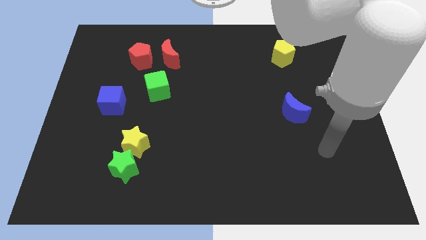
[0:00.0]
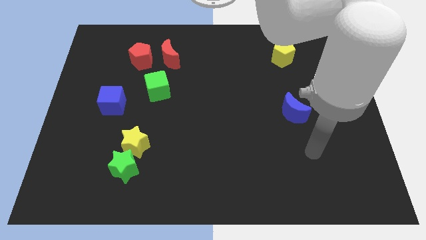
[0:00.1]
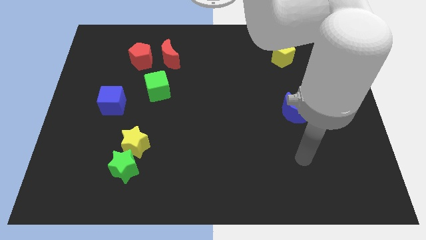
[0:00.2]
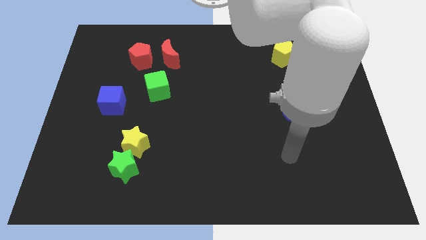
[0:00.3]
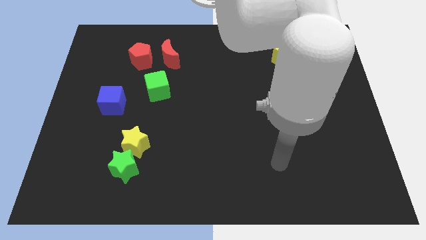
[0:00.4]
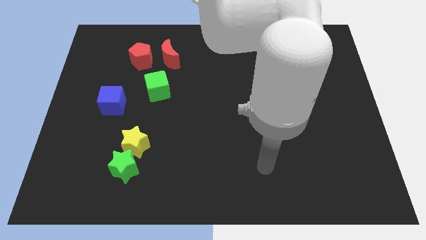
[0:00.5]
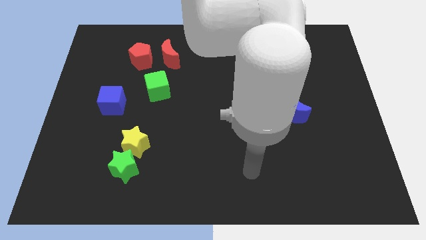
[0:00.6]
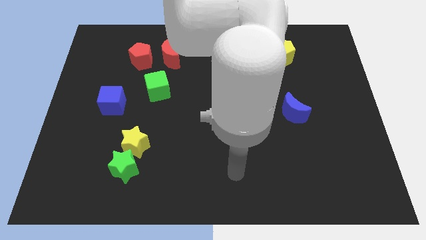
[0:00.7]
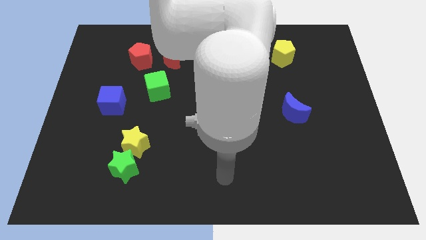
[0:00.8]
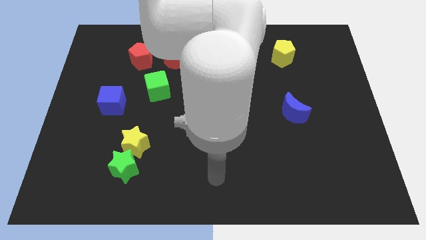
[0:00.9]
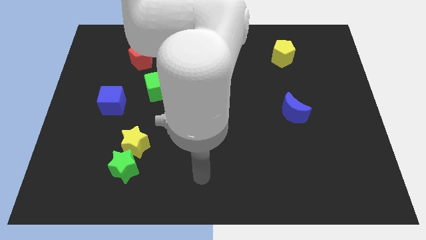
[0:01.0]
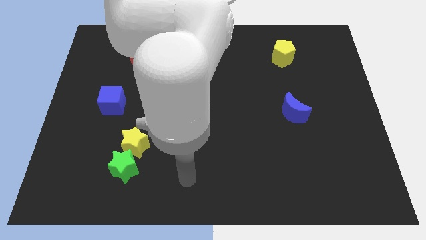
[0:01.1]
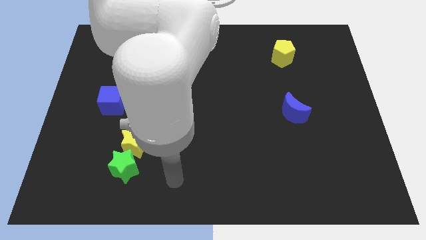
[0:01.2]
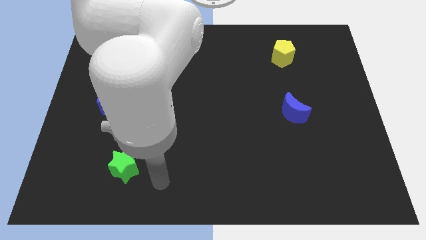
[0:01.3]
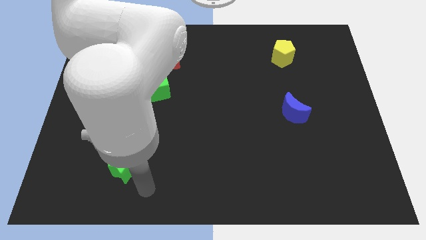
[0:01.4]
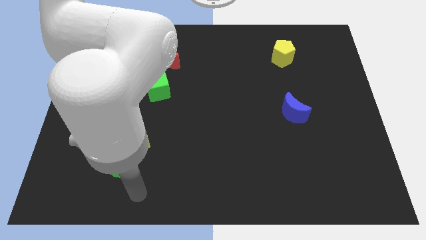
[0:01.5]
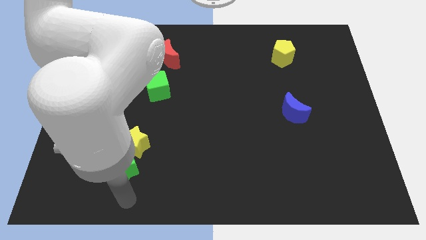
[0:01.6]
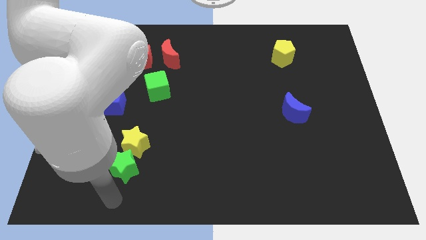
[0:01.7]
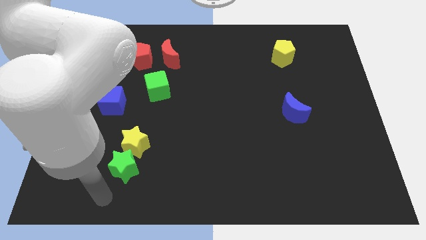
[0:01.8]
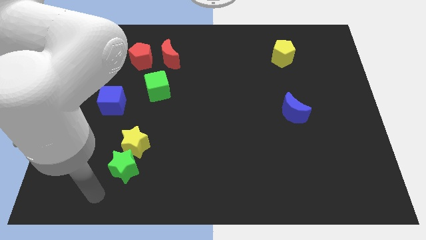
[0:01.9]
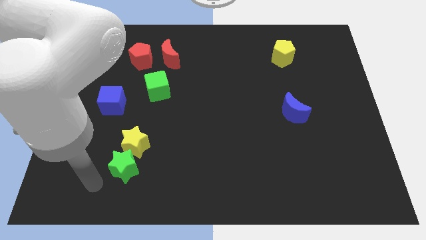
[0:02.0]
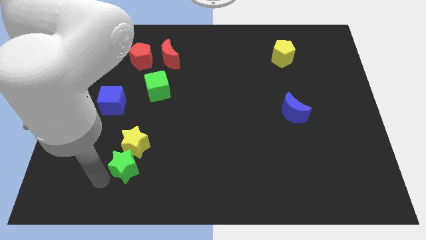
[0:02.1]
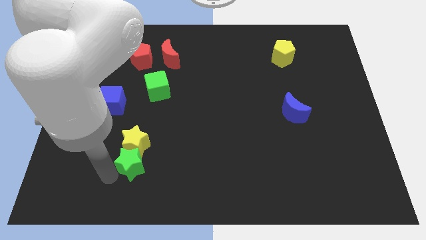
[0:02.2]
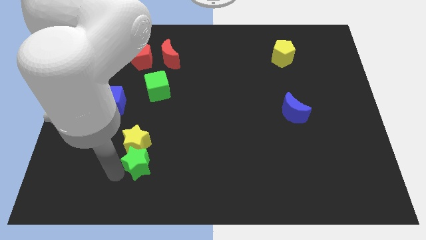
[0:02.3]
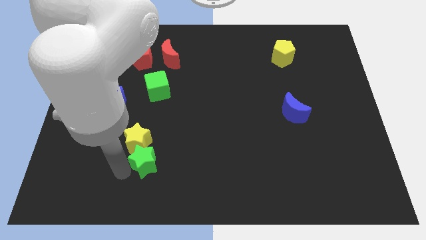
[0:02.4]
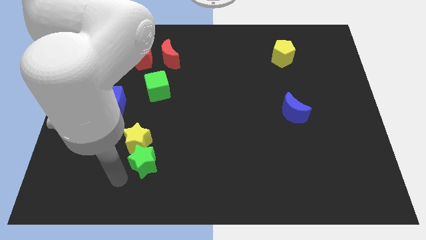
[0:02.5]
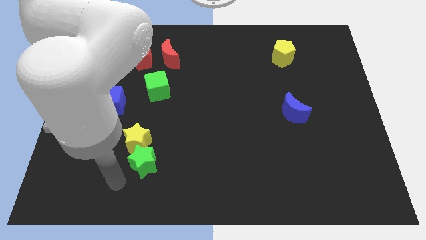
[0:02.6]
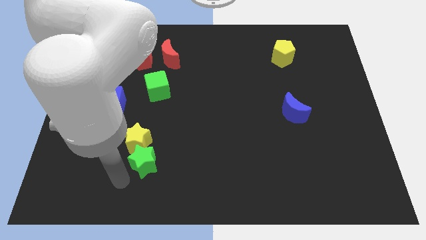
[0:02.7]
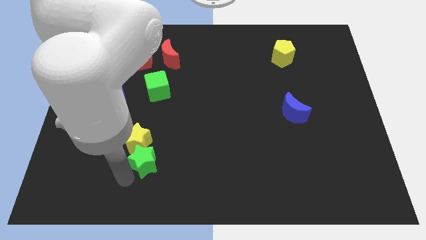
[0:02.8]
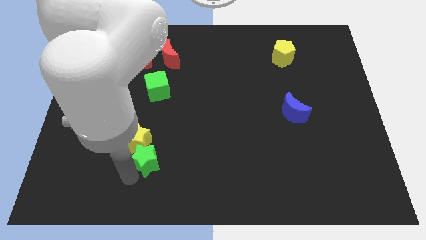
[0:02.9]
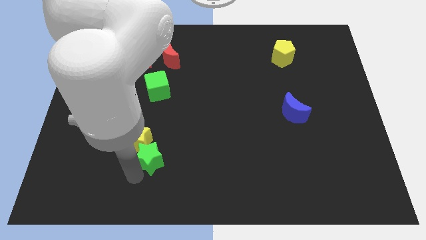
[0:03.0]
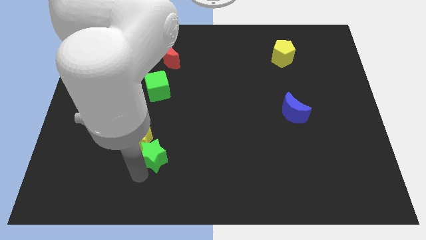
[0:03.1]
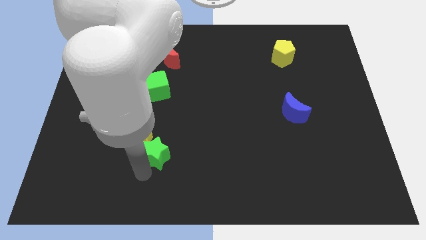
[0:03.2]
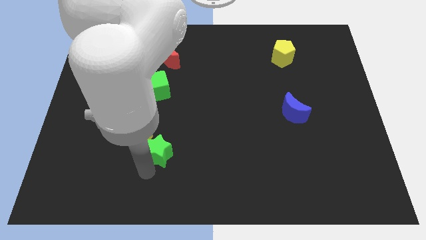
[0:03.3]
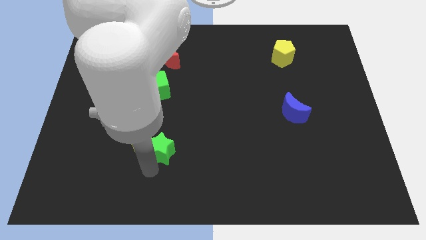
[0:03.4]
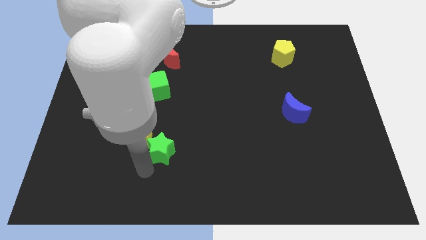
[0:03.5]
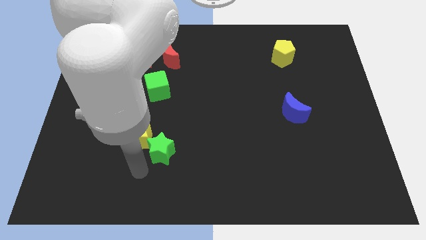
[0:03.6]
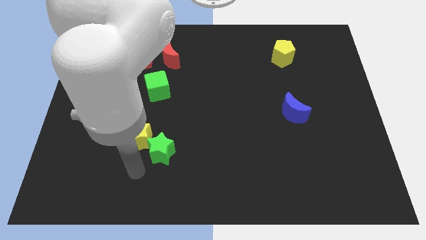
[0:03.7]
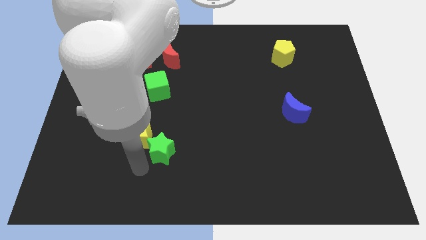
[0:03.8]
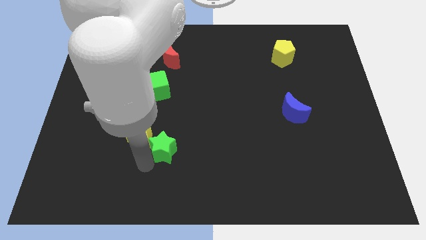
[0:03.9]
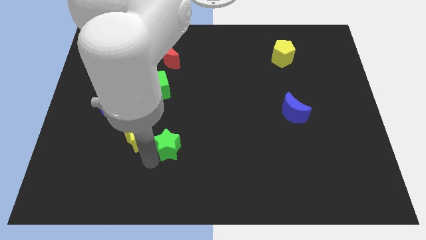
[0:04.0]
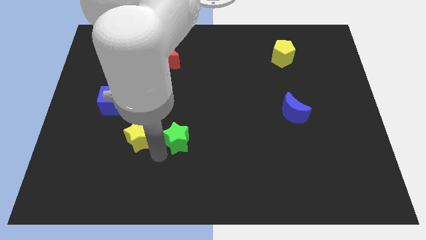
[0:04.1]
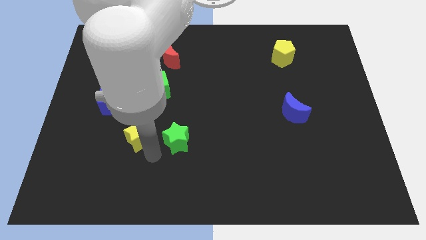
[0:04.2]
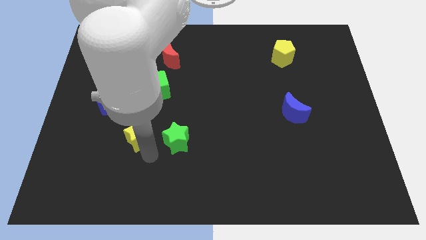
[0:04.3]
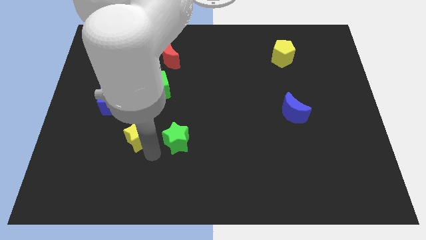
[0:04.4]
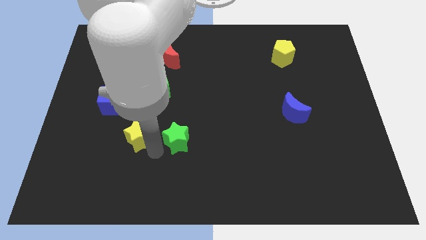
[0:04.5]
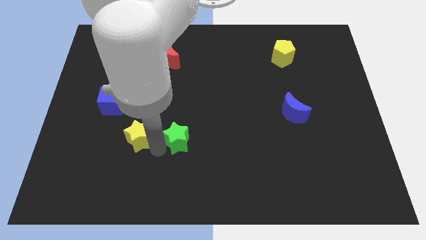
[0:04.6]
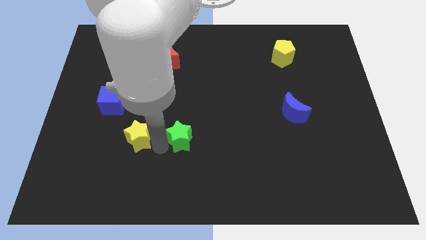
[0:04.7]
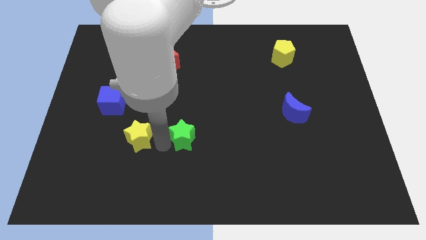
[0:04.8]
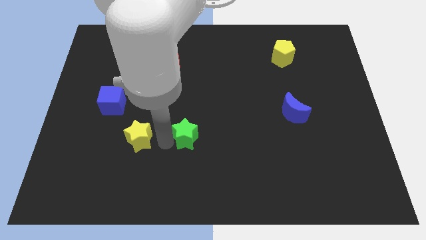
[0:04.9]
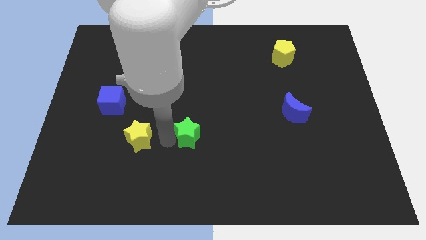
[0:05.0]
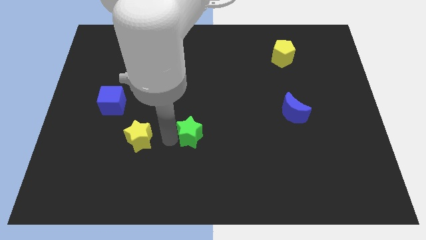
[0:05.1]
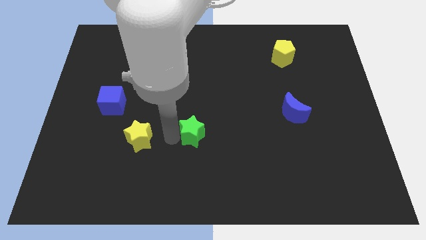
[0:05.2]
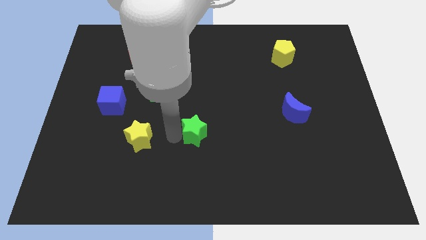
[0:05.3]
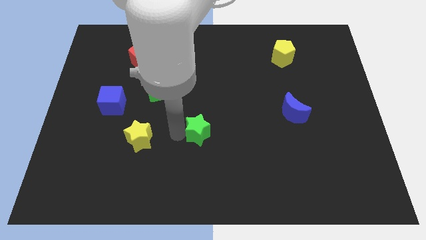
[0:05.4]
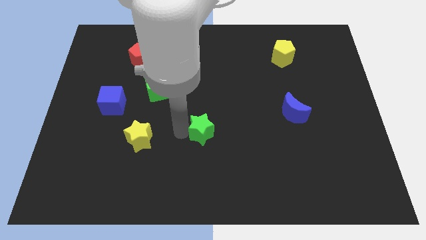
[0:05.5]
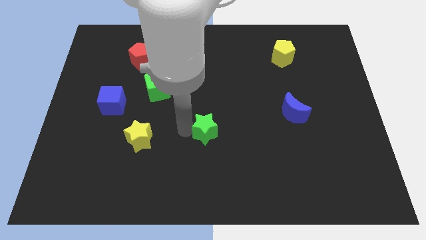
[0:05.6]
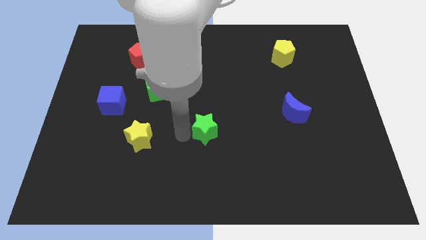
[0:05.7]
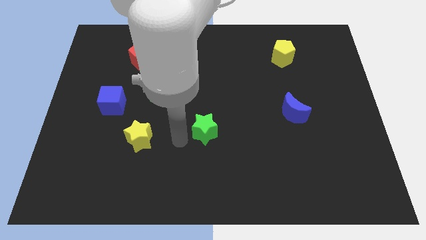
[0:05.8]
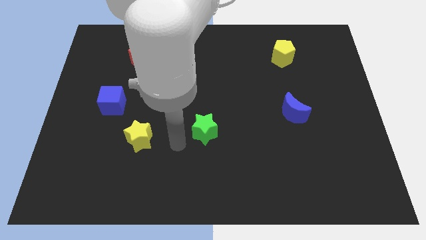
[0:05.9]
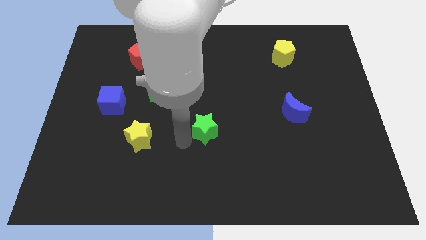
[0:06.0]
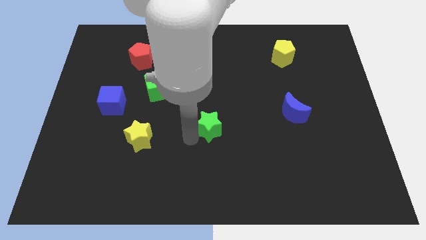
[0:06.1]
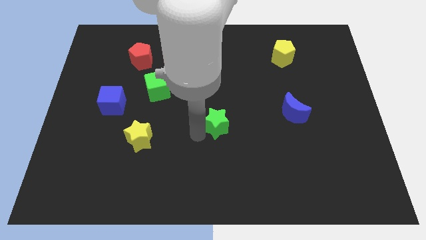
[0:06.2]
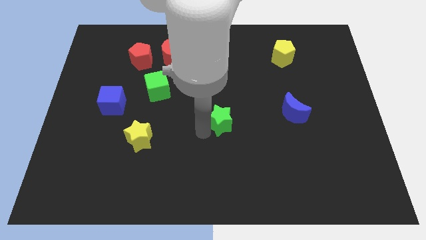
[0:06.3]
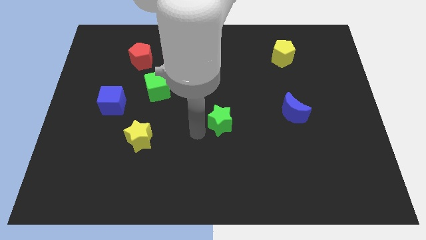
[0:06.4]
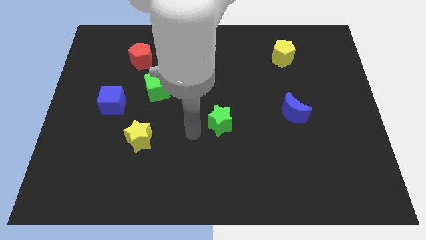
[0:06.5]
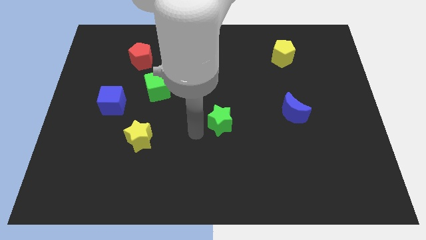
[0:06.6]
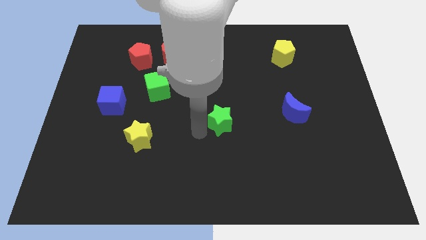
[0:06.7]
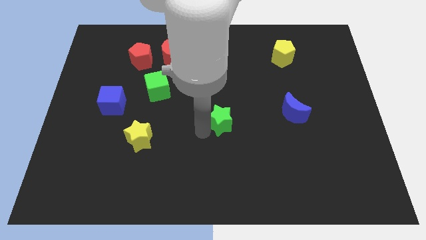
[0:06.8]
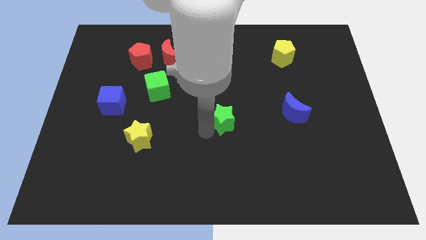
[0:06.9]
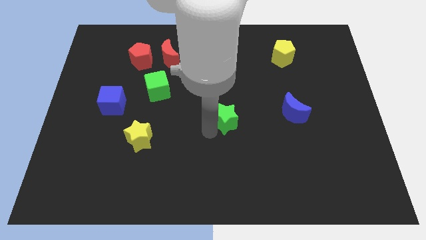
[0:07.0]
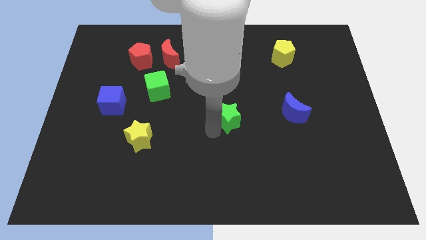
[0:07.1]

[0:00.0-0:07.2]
put the green star to the left of the blue moon

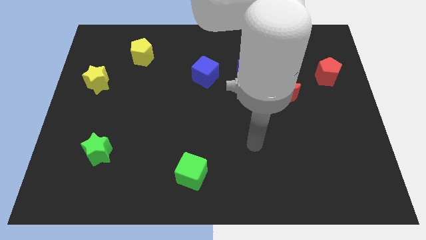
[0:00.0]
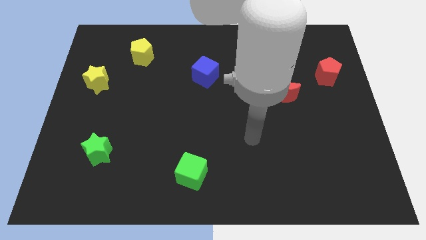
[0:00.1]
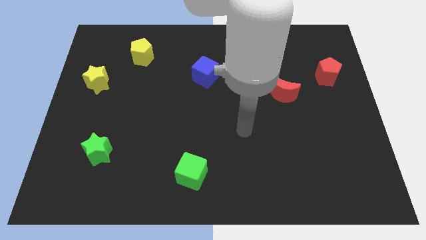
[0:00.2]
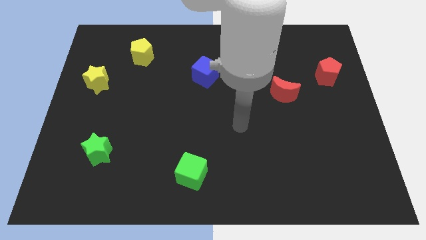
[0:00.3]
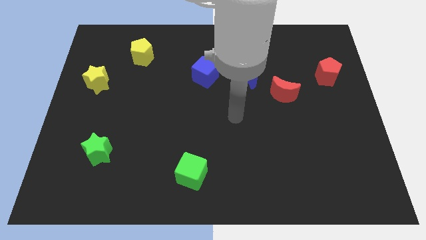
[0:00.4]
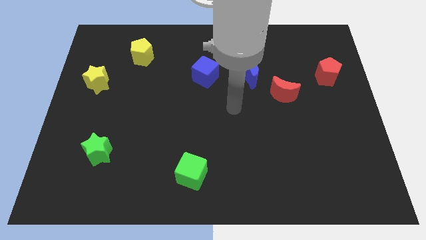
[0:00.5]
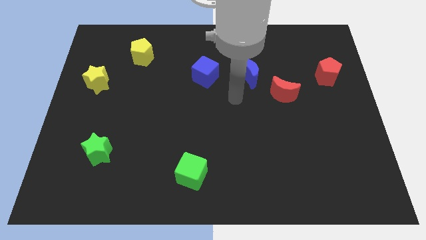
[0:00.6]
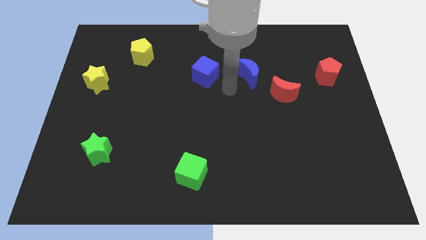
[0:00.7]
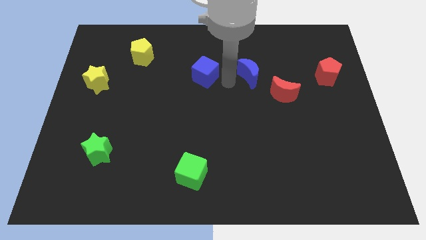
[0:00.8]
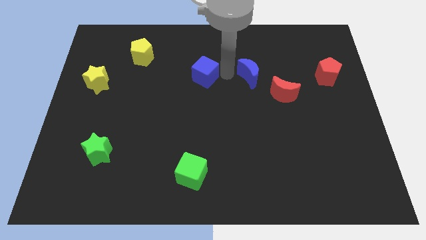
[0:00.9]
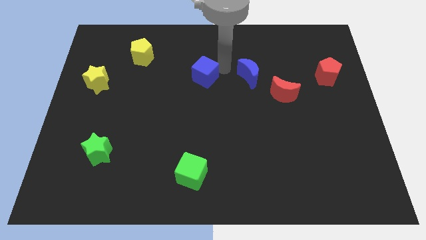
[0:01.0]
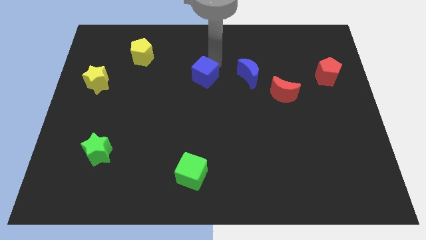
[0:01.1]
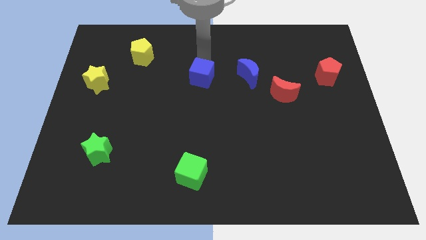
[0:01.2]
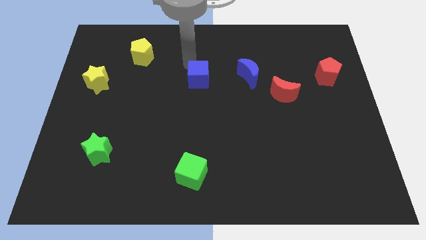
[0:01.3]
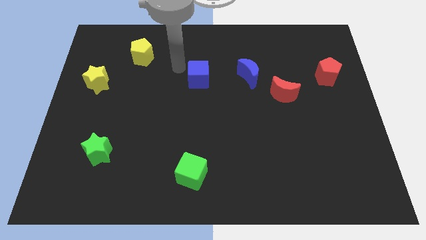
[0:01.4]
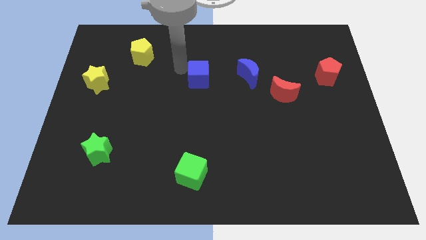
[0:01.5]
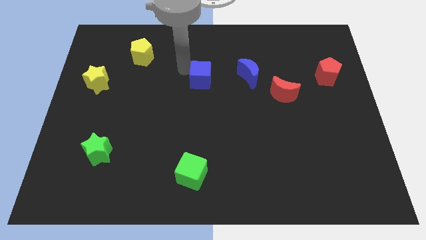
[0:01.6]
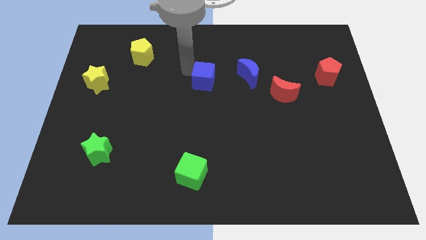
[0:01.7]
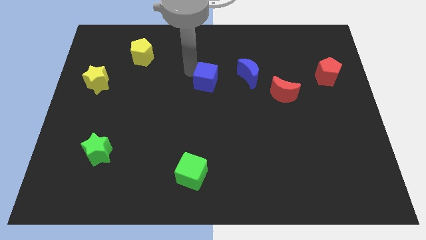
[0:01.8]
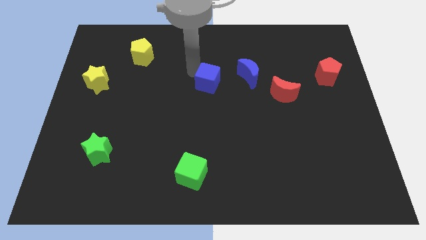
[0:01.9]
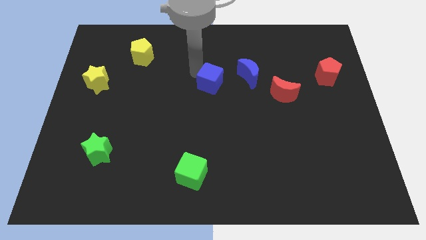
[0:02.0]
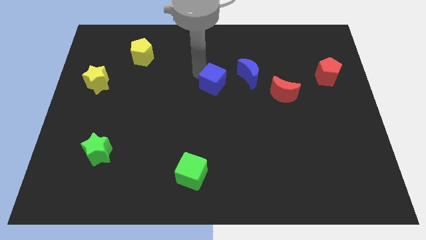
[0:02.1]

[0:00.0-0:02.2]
put the blue cube to the bottom left of the blue moon
